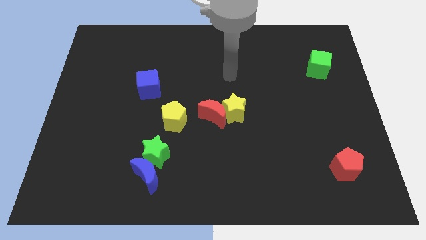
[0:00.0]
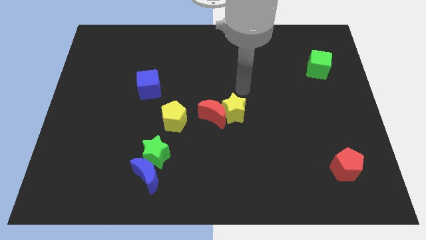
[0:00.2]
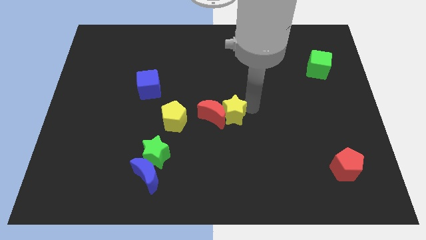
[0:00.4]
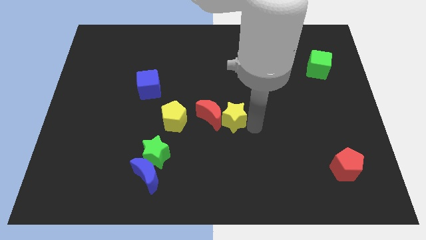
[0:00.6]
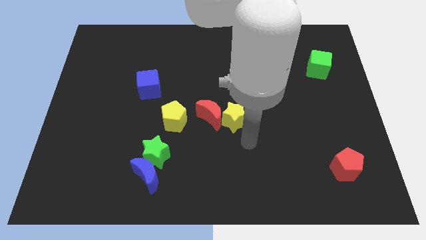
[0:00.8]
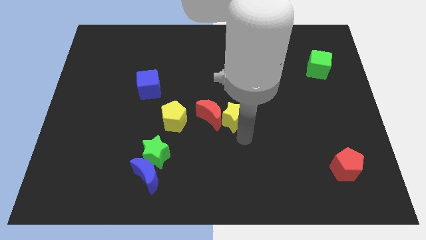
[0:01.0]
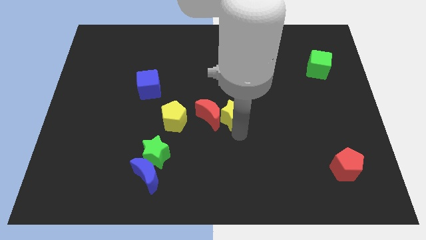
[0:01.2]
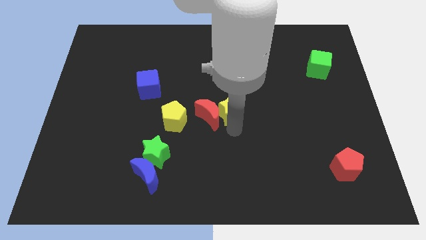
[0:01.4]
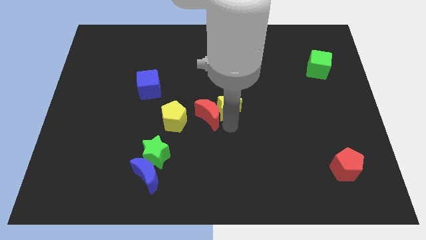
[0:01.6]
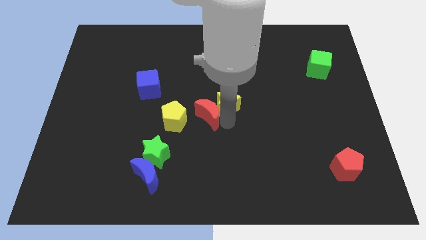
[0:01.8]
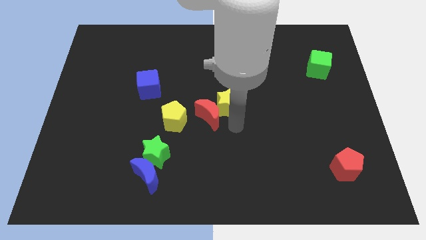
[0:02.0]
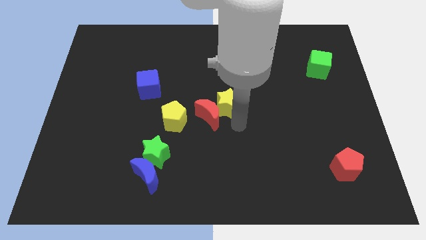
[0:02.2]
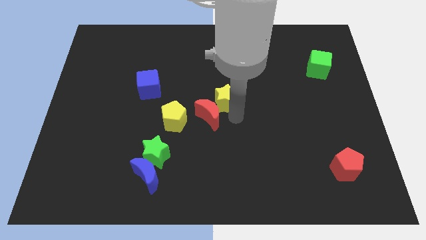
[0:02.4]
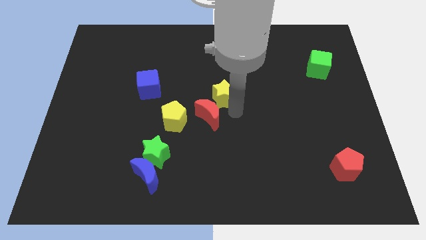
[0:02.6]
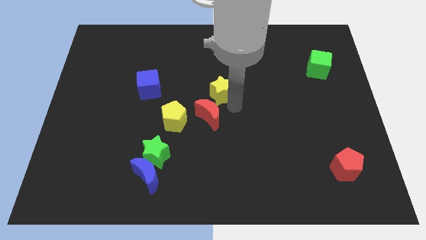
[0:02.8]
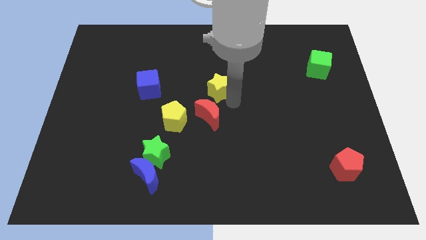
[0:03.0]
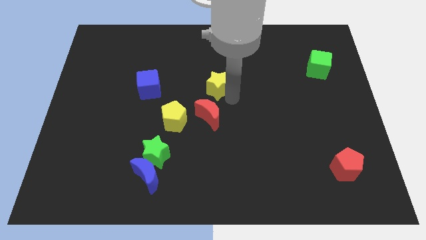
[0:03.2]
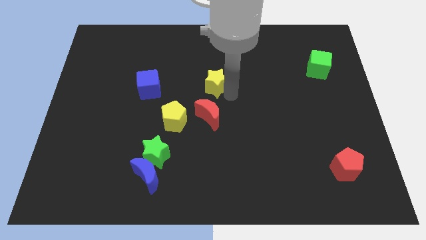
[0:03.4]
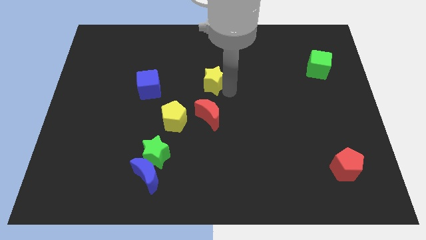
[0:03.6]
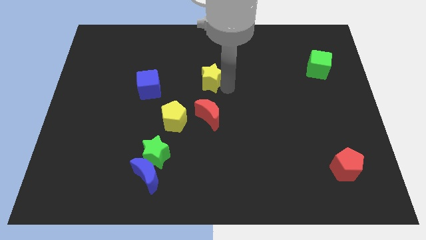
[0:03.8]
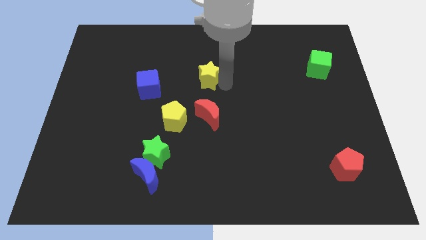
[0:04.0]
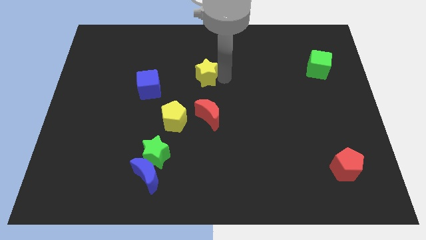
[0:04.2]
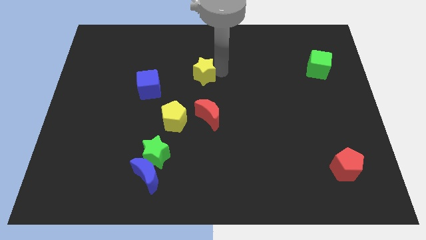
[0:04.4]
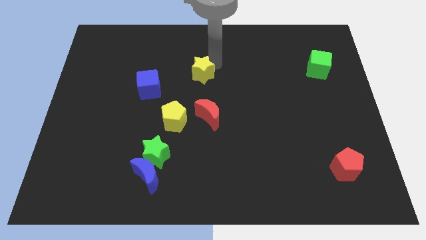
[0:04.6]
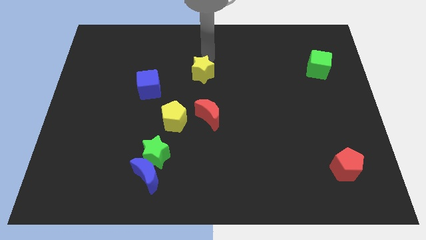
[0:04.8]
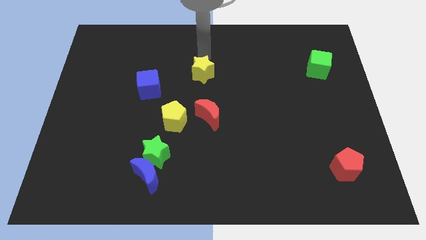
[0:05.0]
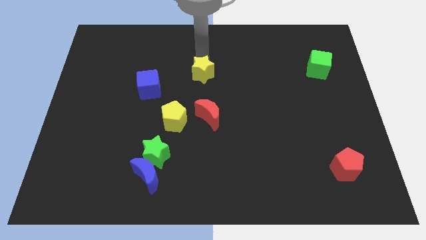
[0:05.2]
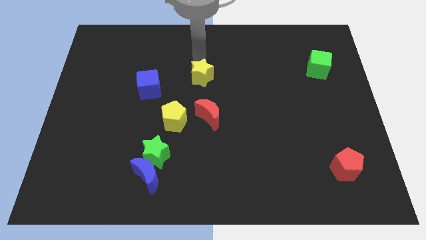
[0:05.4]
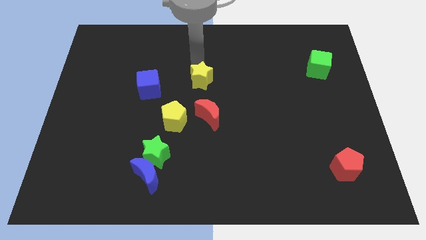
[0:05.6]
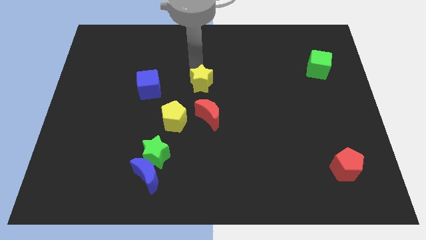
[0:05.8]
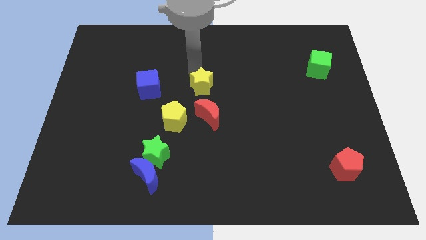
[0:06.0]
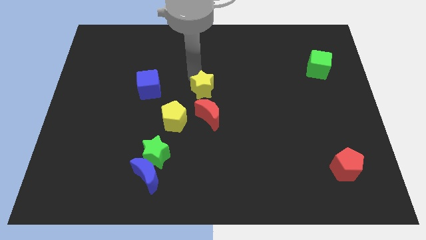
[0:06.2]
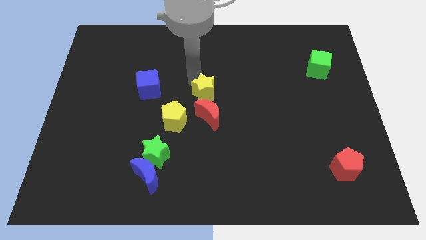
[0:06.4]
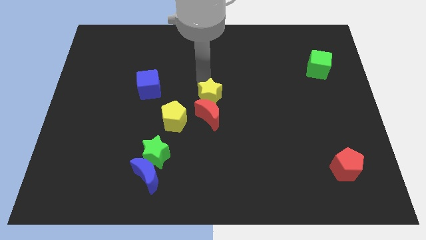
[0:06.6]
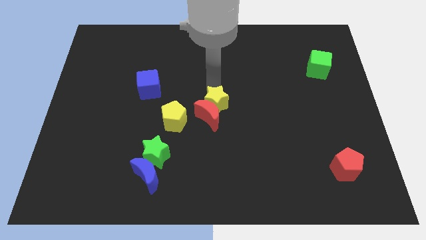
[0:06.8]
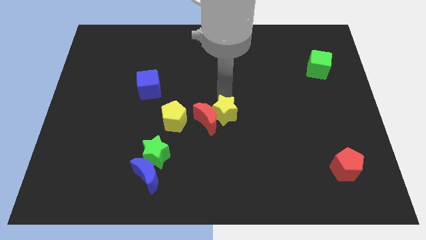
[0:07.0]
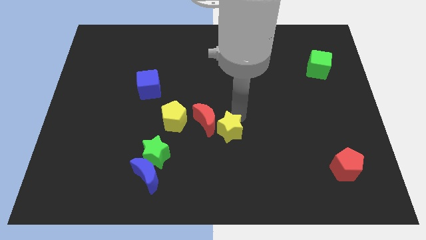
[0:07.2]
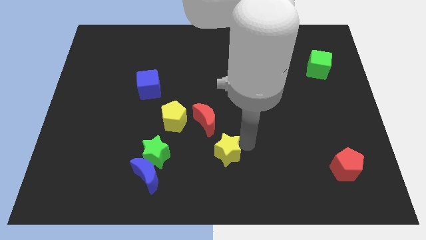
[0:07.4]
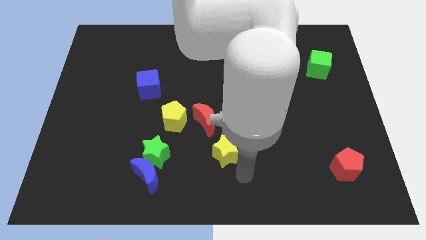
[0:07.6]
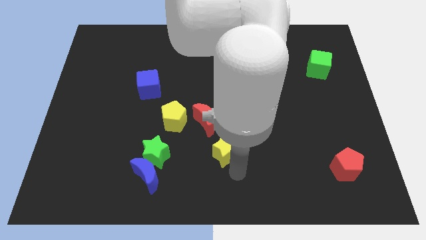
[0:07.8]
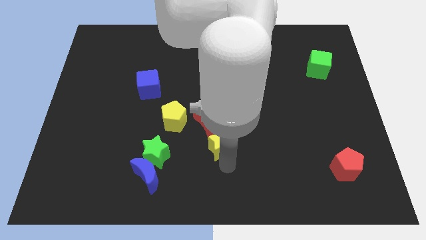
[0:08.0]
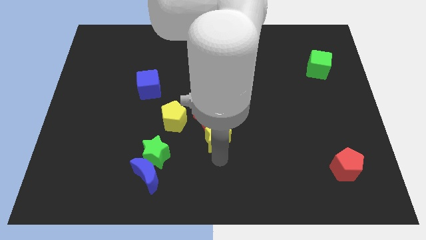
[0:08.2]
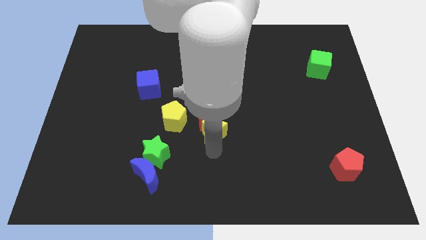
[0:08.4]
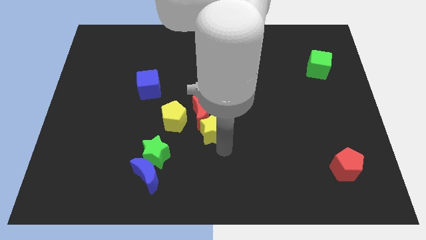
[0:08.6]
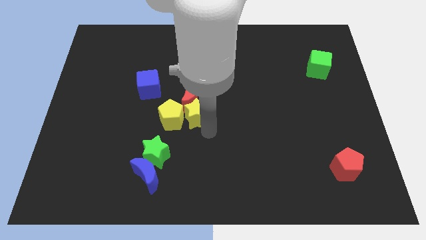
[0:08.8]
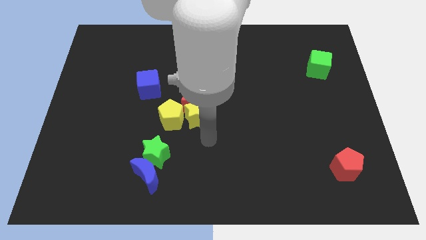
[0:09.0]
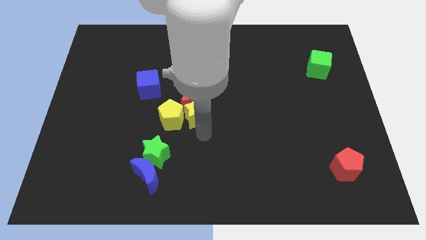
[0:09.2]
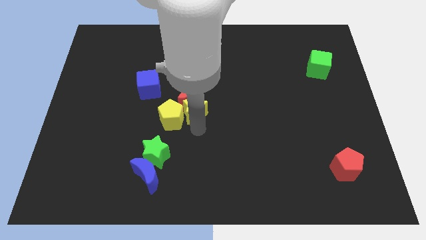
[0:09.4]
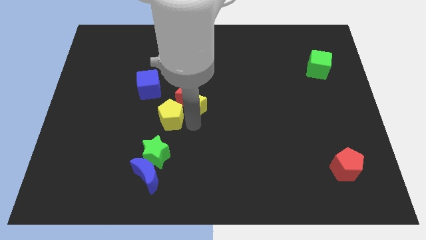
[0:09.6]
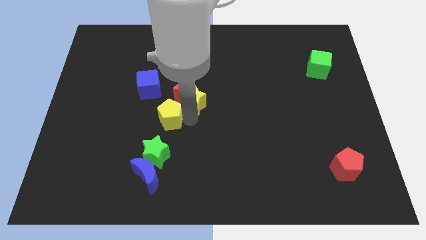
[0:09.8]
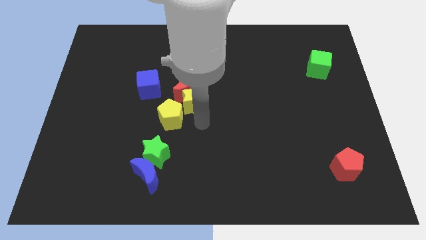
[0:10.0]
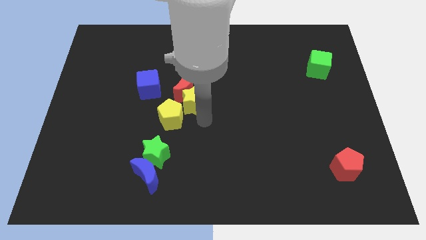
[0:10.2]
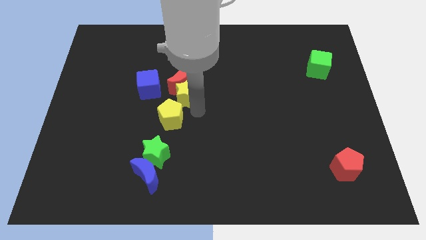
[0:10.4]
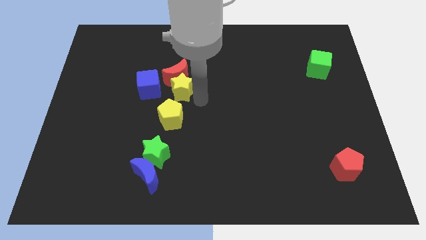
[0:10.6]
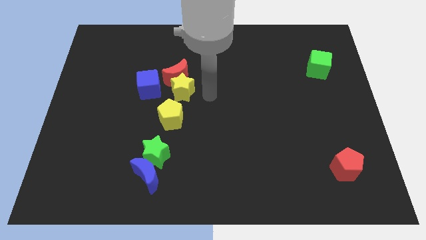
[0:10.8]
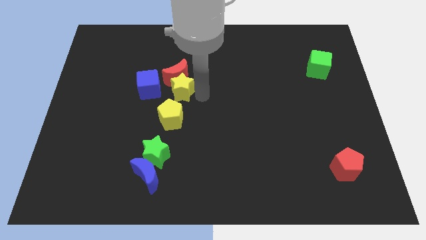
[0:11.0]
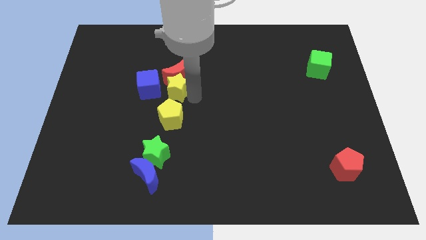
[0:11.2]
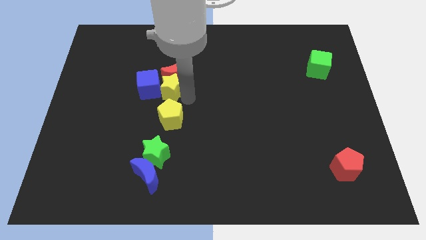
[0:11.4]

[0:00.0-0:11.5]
move the yellow star to the blue cube

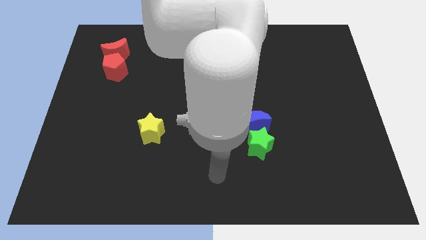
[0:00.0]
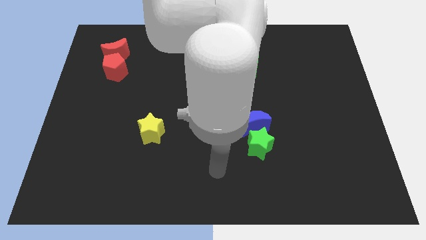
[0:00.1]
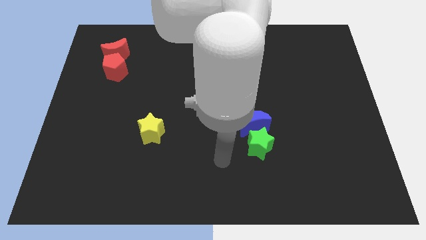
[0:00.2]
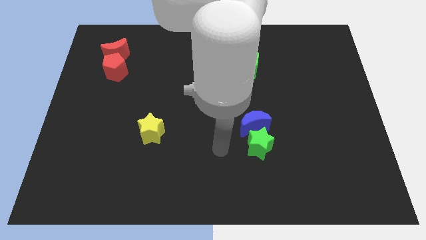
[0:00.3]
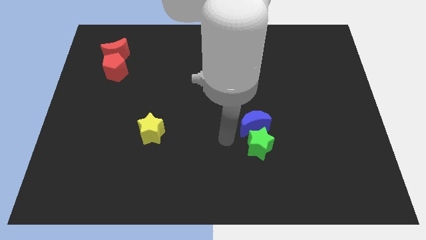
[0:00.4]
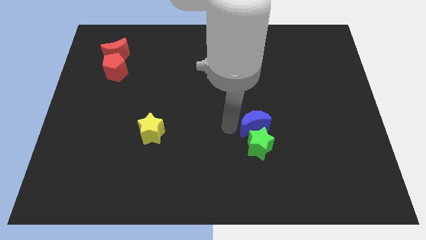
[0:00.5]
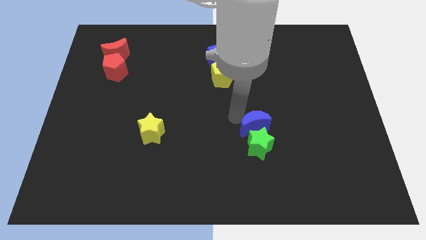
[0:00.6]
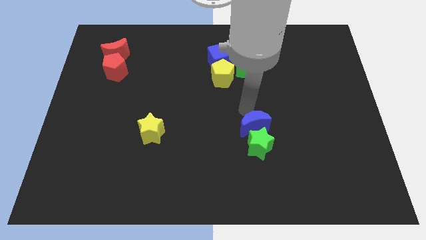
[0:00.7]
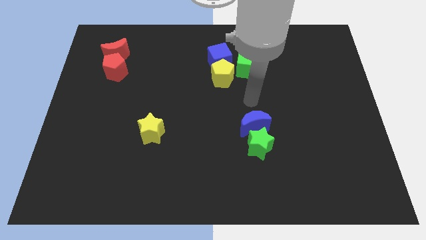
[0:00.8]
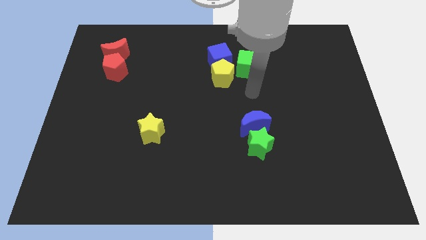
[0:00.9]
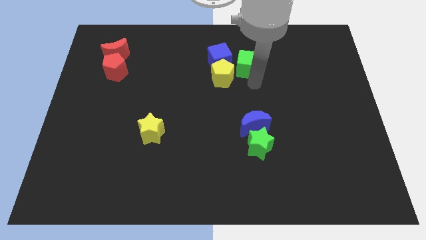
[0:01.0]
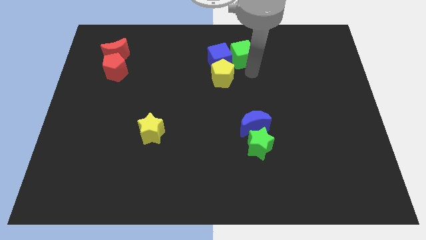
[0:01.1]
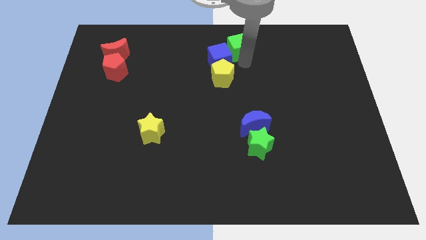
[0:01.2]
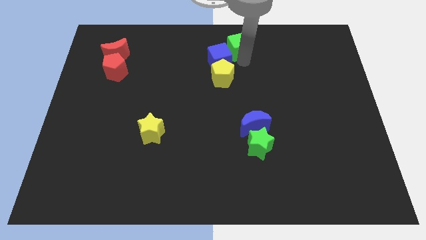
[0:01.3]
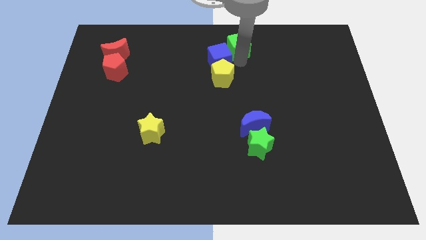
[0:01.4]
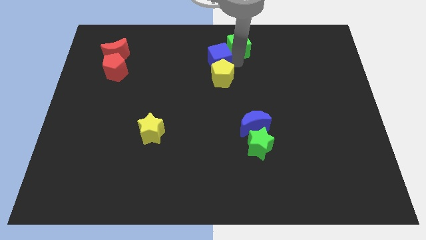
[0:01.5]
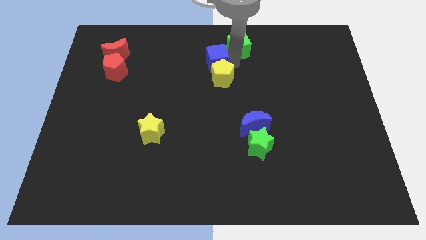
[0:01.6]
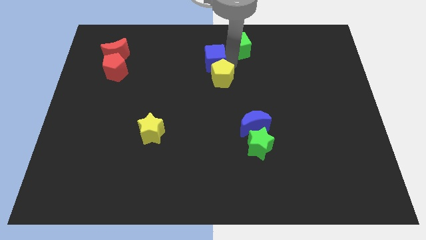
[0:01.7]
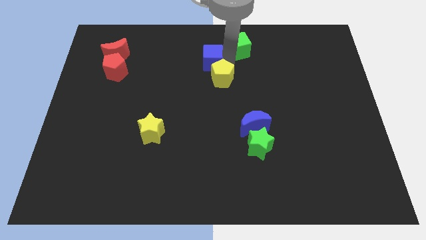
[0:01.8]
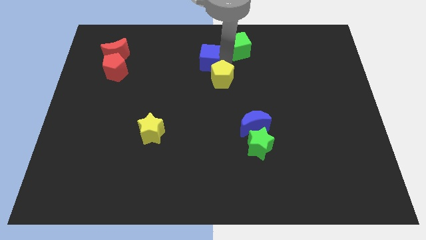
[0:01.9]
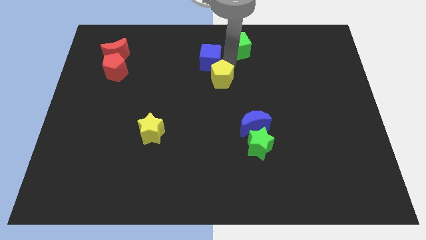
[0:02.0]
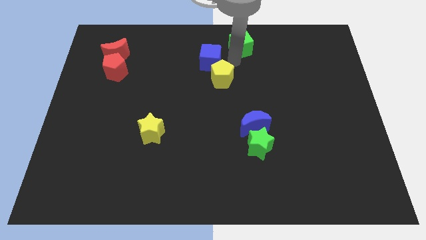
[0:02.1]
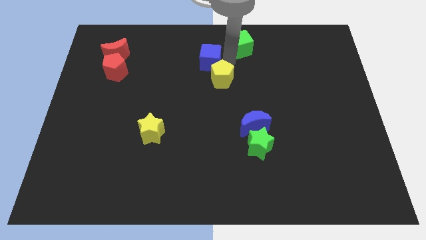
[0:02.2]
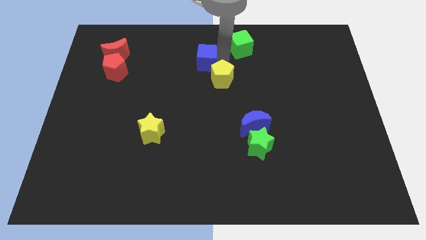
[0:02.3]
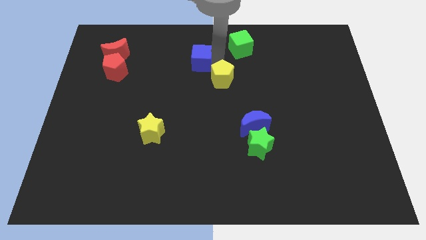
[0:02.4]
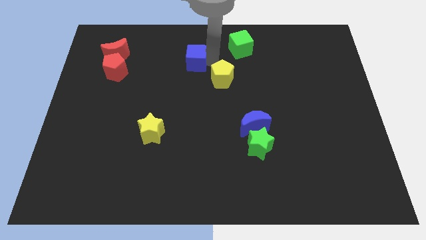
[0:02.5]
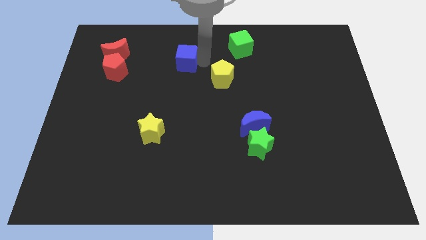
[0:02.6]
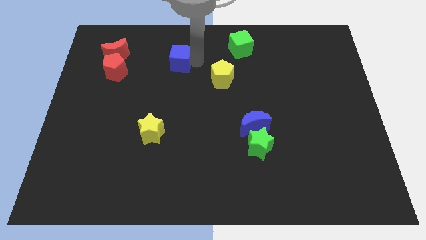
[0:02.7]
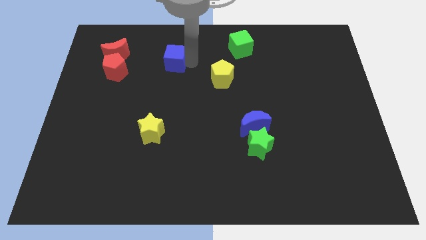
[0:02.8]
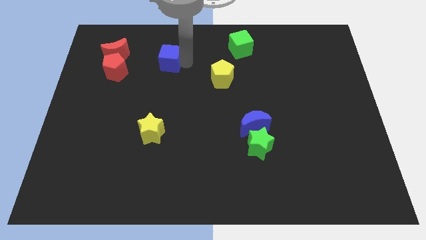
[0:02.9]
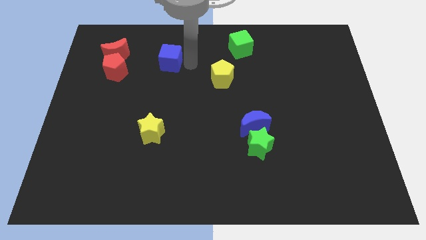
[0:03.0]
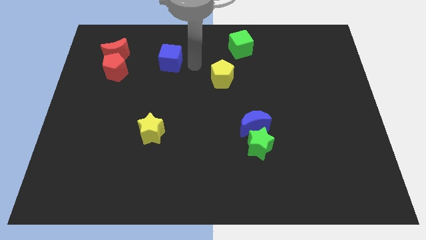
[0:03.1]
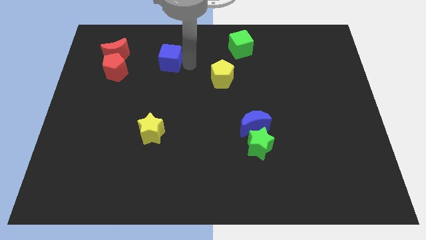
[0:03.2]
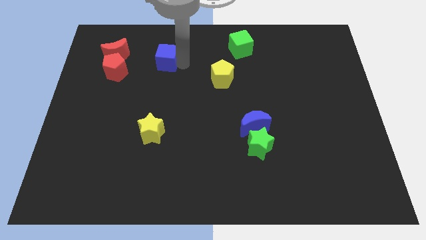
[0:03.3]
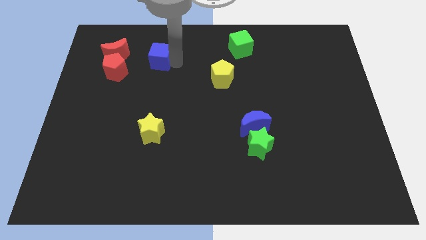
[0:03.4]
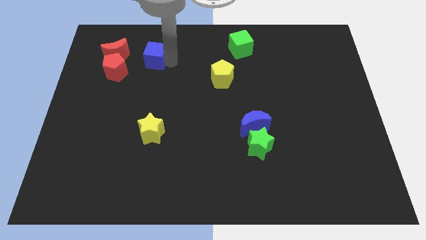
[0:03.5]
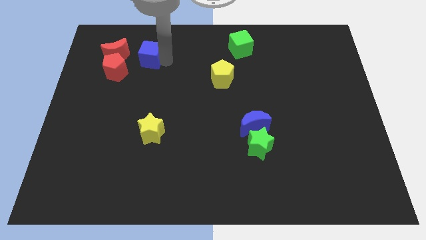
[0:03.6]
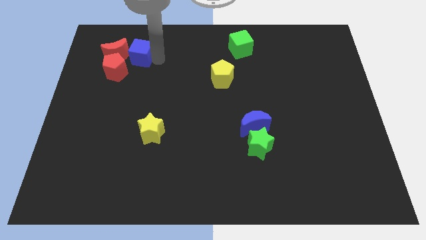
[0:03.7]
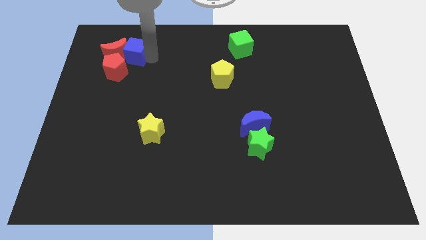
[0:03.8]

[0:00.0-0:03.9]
slide the blue cube to the red moon
